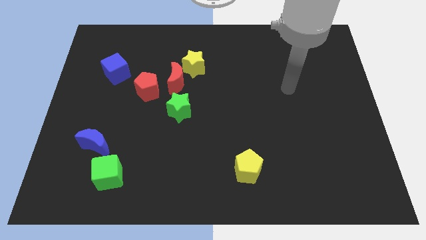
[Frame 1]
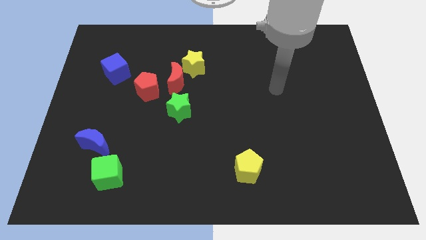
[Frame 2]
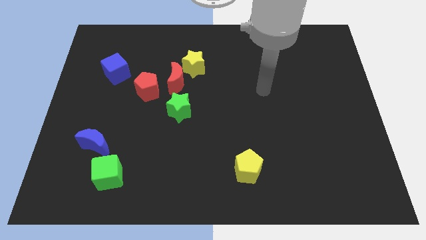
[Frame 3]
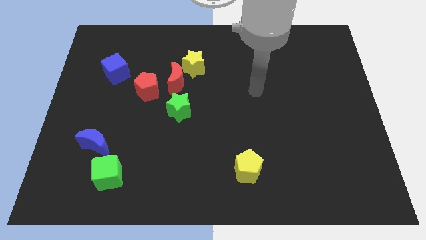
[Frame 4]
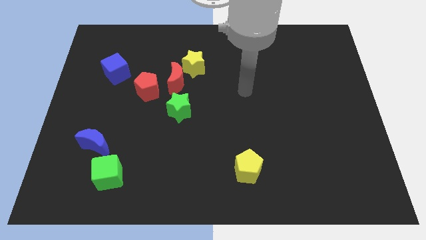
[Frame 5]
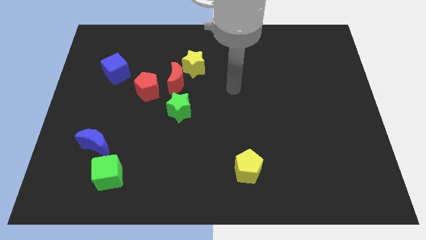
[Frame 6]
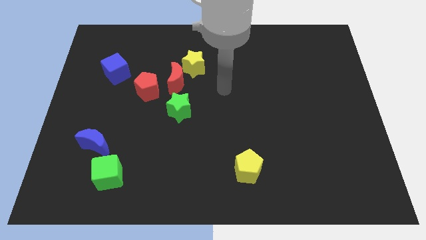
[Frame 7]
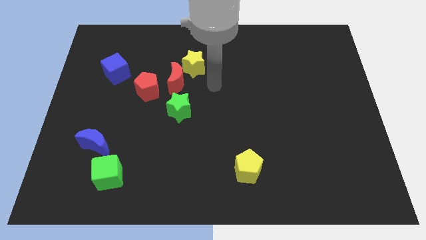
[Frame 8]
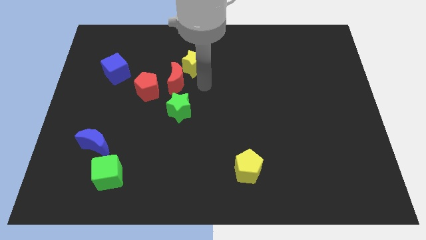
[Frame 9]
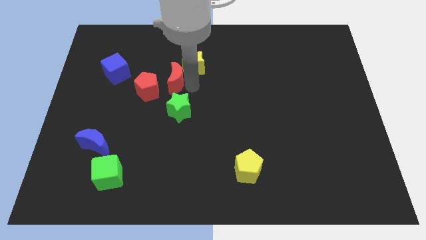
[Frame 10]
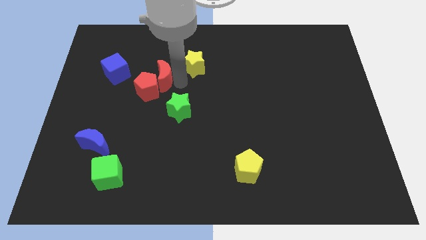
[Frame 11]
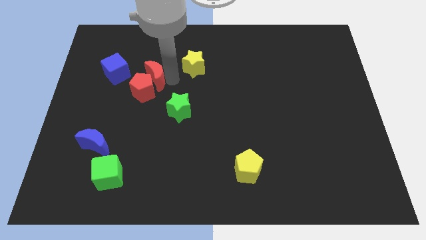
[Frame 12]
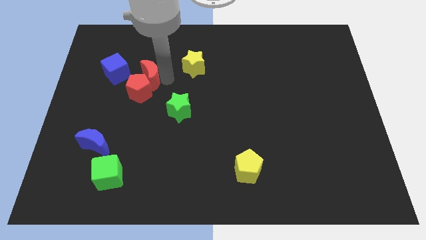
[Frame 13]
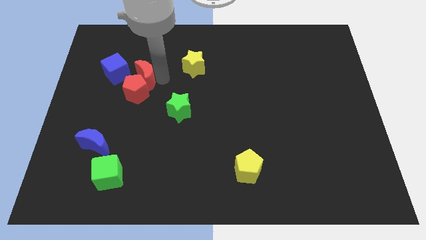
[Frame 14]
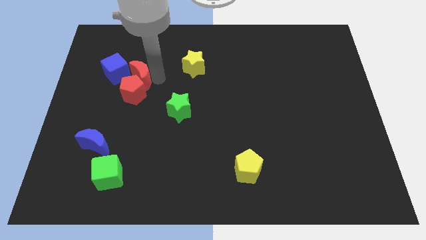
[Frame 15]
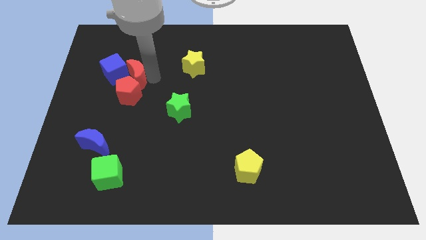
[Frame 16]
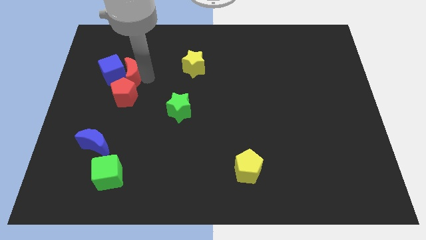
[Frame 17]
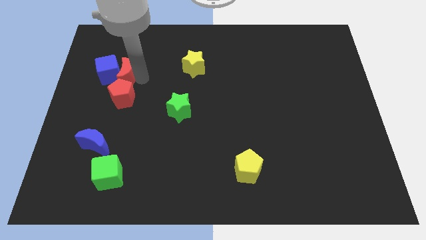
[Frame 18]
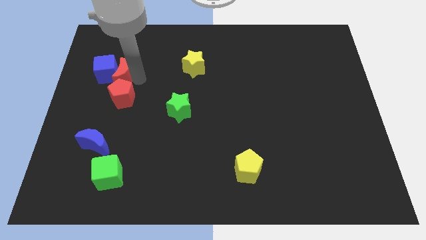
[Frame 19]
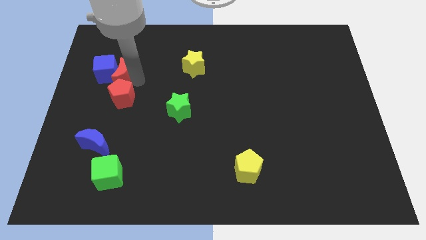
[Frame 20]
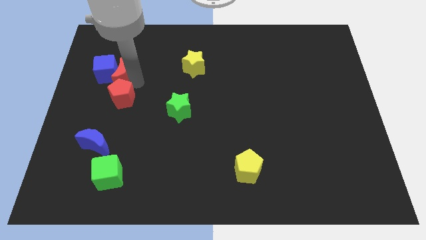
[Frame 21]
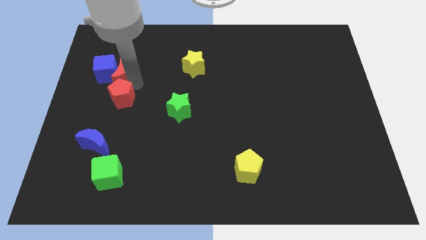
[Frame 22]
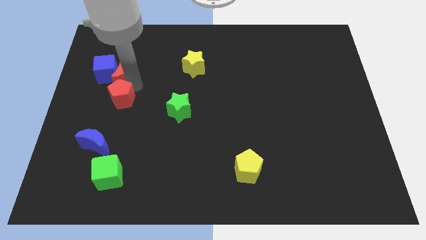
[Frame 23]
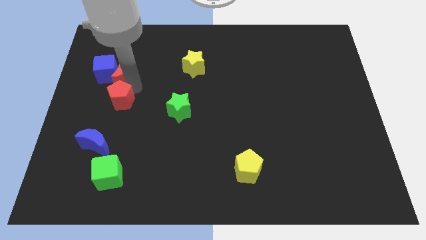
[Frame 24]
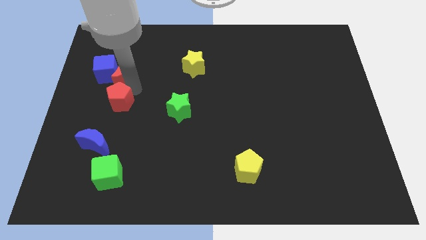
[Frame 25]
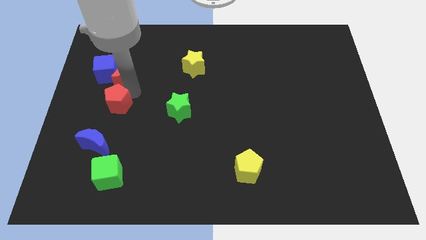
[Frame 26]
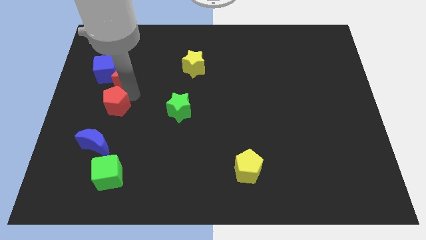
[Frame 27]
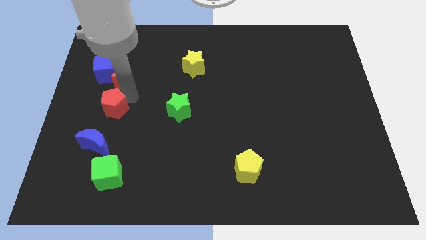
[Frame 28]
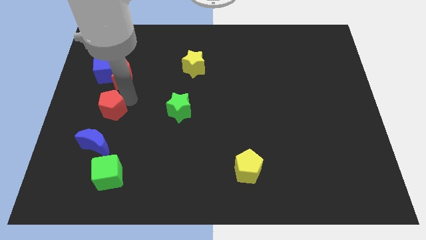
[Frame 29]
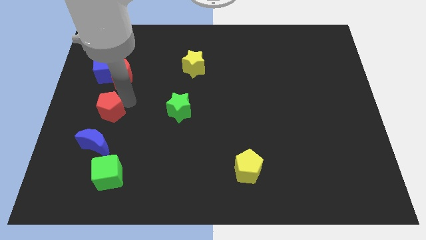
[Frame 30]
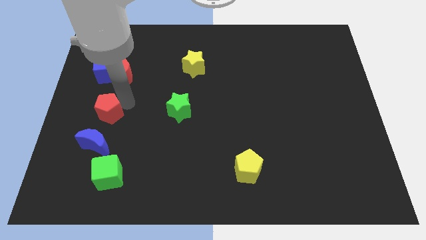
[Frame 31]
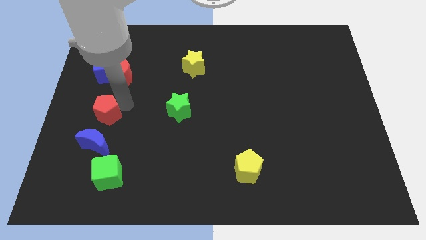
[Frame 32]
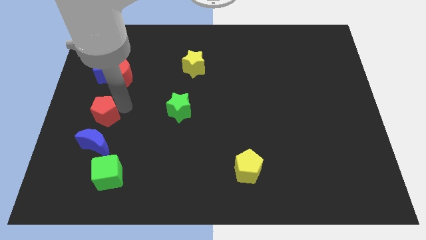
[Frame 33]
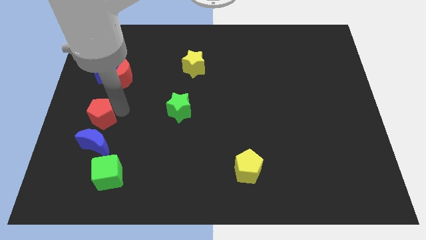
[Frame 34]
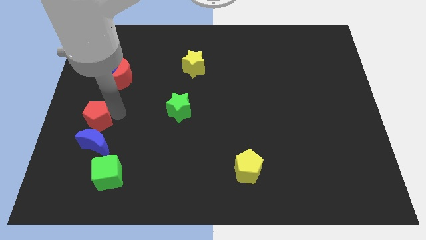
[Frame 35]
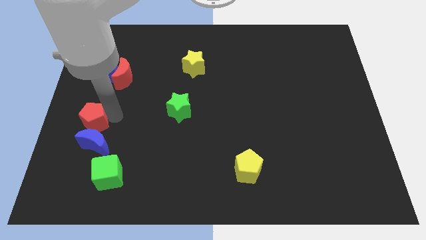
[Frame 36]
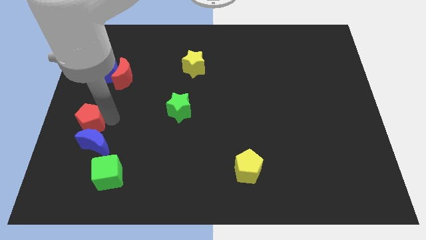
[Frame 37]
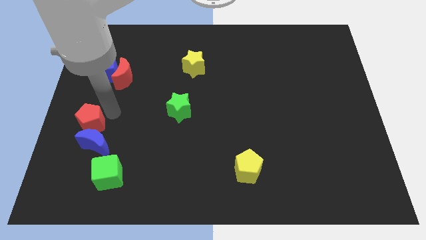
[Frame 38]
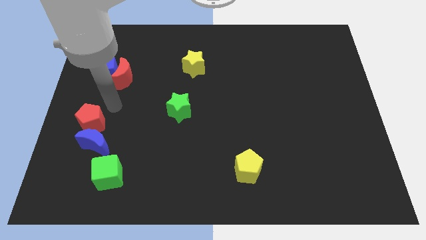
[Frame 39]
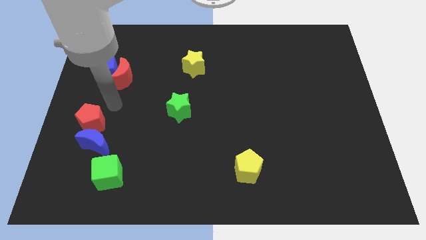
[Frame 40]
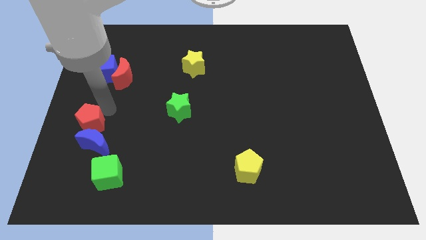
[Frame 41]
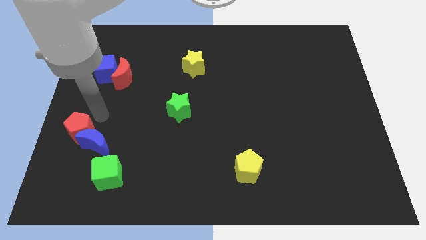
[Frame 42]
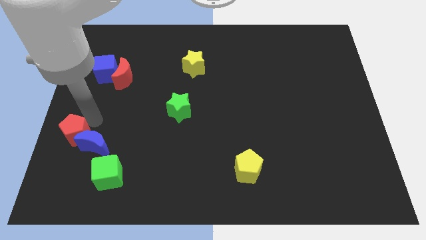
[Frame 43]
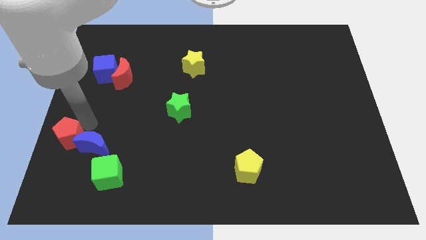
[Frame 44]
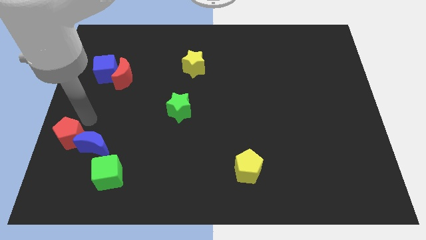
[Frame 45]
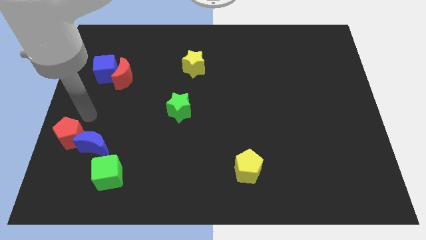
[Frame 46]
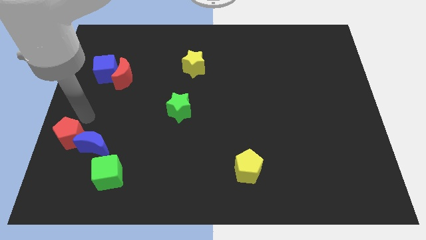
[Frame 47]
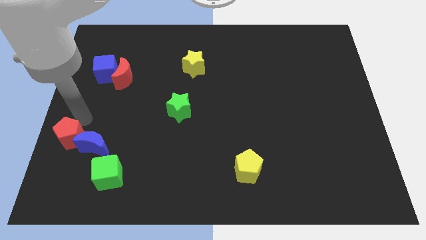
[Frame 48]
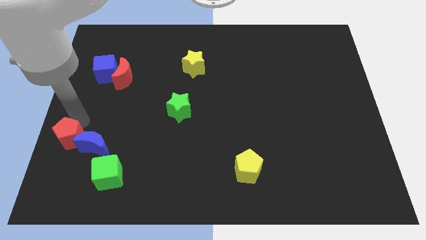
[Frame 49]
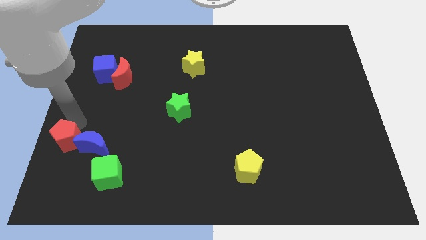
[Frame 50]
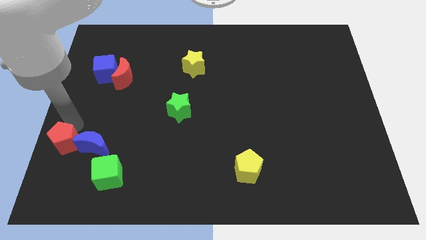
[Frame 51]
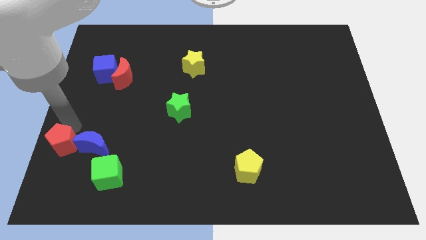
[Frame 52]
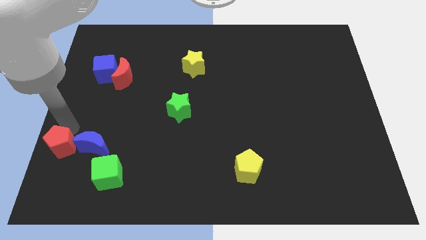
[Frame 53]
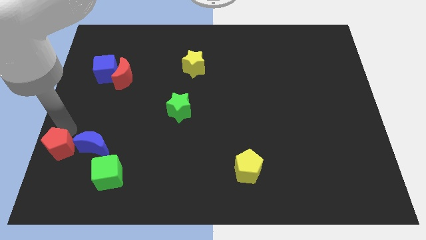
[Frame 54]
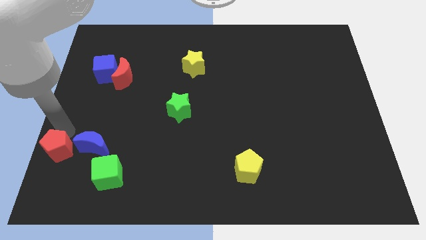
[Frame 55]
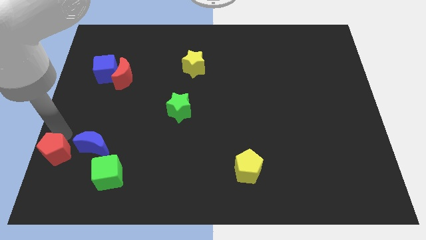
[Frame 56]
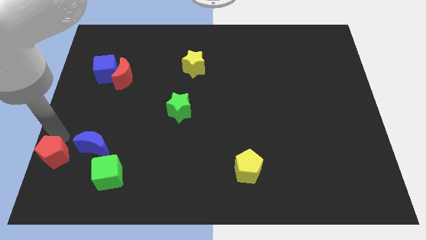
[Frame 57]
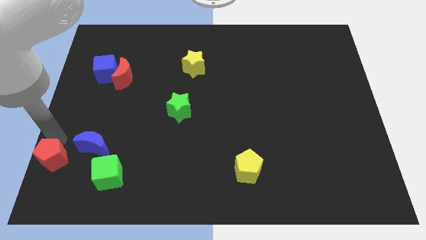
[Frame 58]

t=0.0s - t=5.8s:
slide the red pentagon to the bottom left of the board
